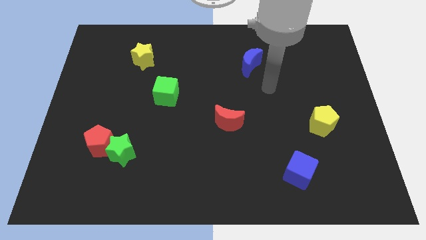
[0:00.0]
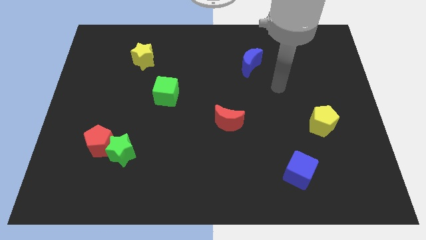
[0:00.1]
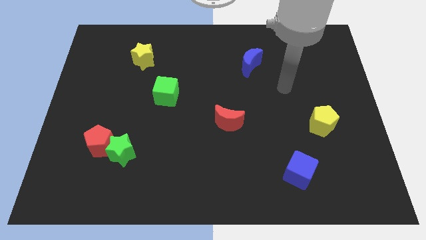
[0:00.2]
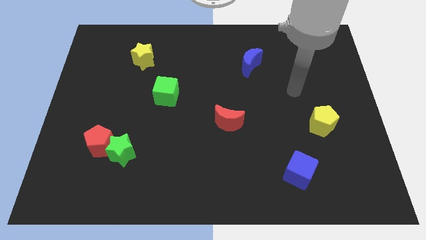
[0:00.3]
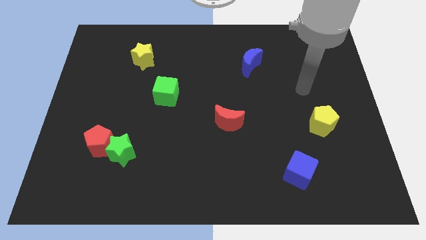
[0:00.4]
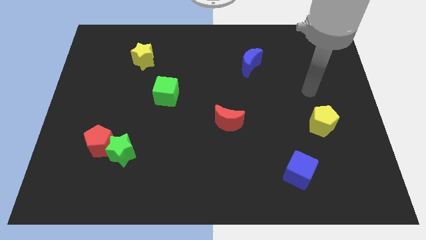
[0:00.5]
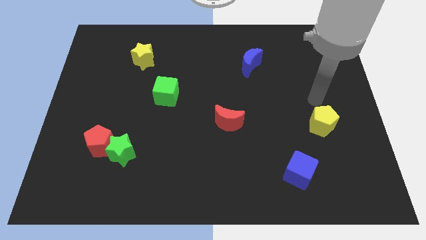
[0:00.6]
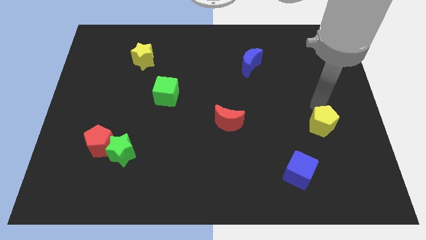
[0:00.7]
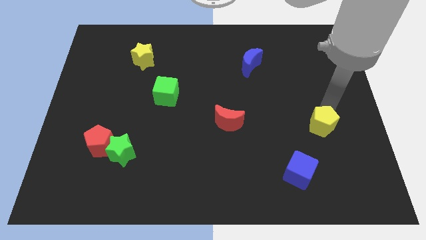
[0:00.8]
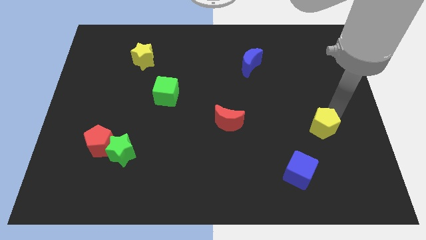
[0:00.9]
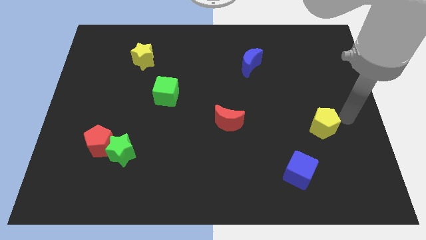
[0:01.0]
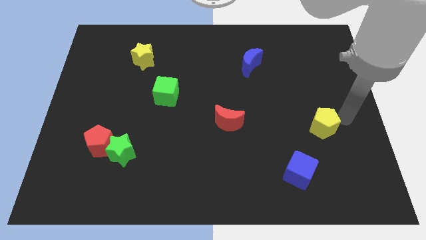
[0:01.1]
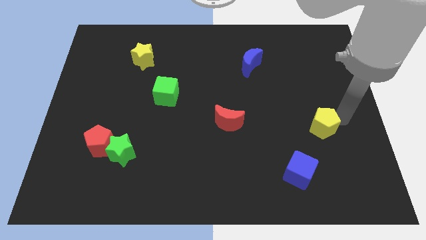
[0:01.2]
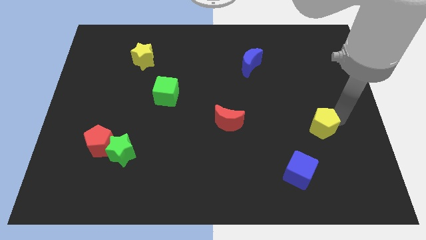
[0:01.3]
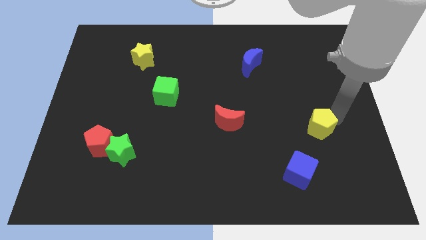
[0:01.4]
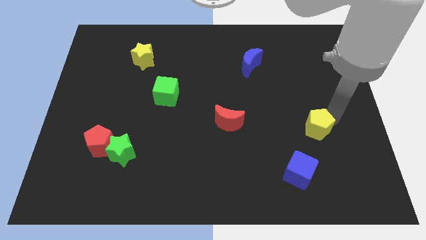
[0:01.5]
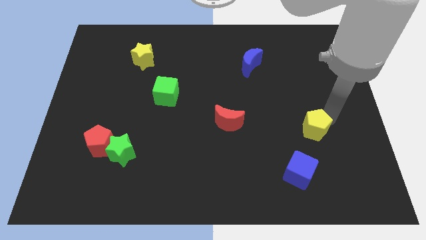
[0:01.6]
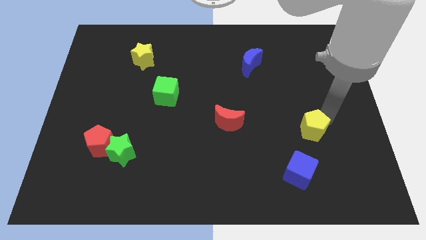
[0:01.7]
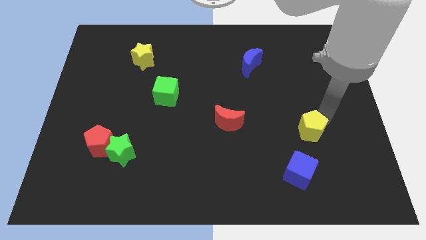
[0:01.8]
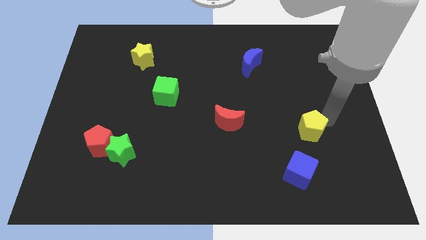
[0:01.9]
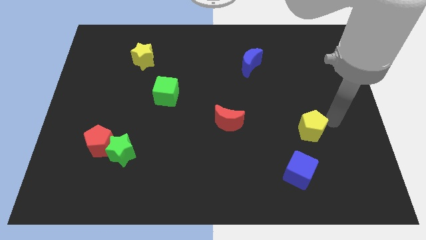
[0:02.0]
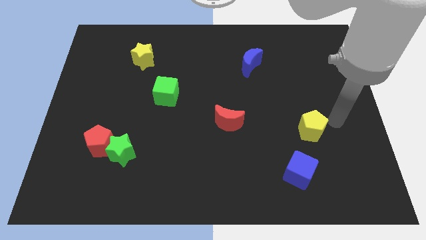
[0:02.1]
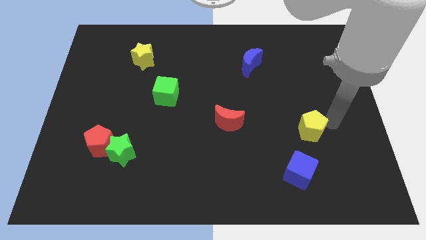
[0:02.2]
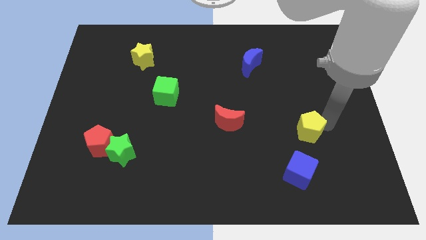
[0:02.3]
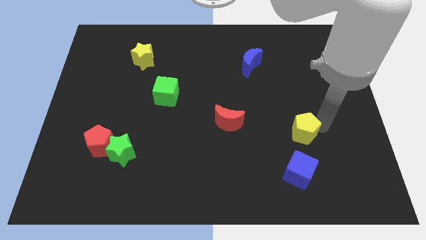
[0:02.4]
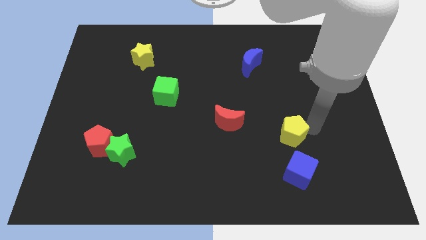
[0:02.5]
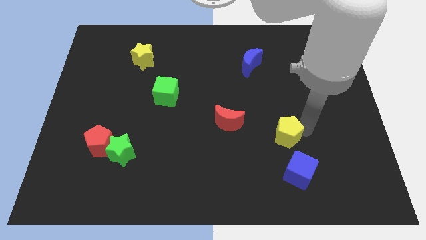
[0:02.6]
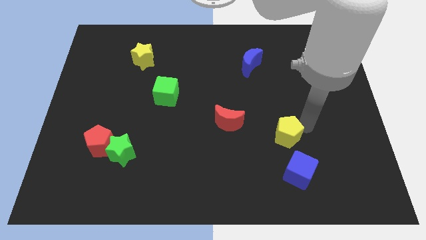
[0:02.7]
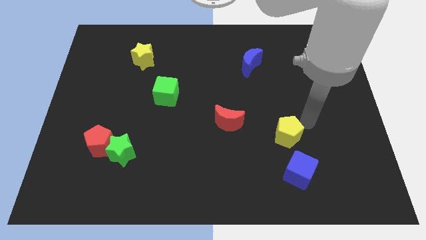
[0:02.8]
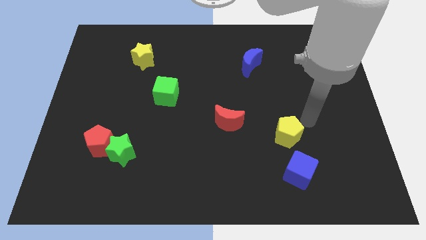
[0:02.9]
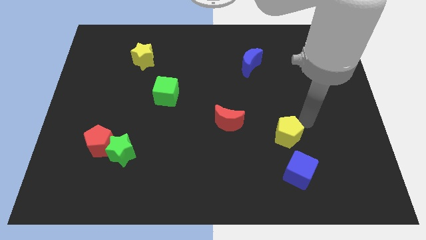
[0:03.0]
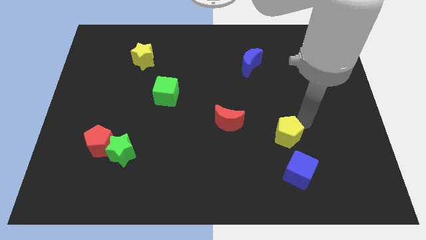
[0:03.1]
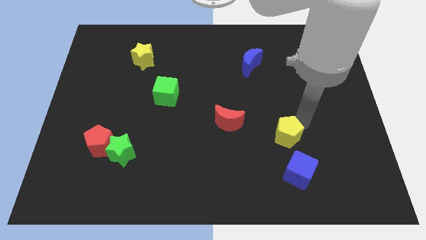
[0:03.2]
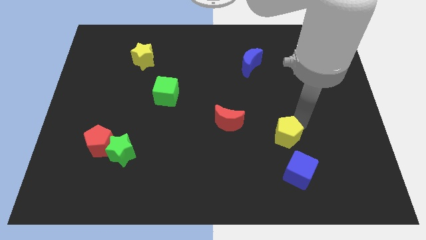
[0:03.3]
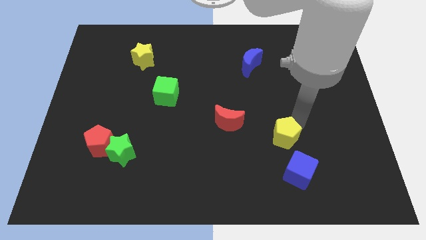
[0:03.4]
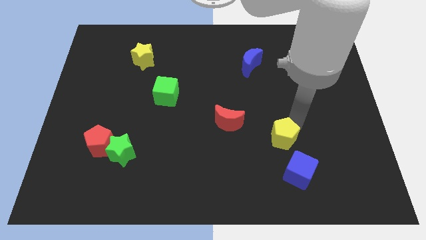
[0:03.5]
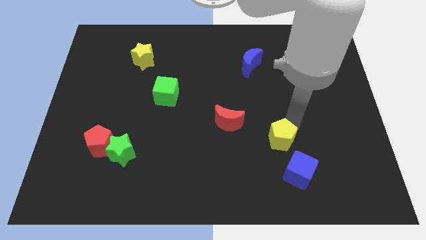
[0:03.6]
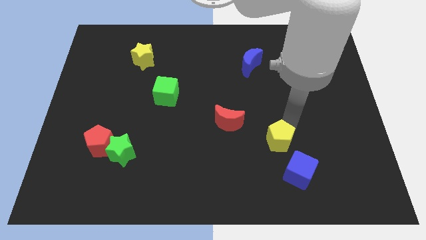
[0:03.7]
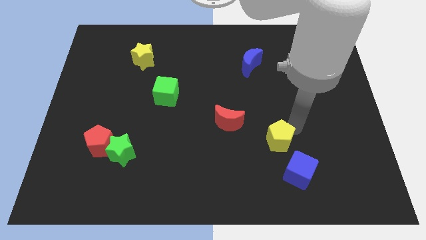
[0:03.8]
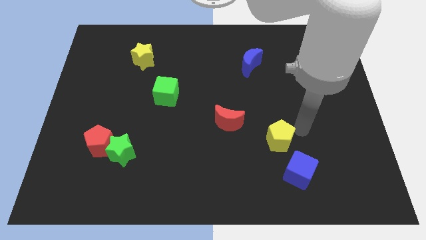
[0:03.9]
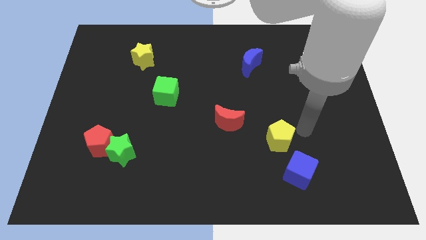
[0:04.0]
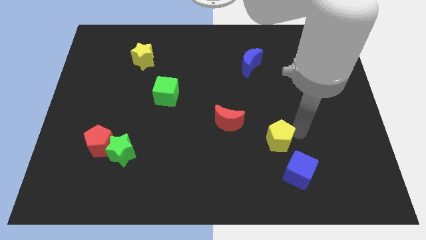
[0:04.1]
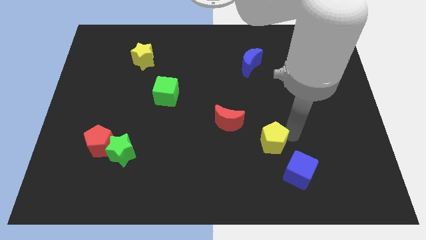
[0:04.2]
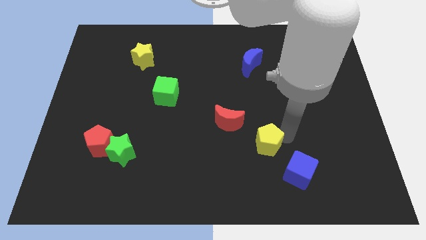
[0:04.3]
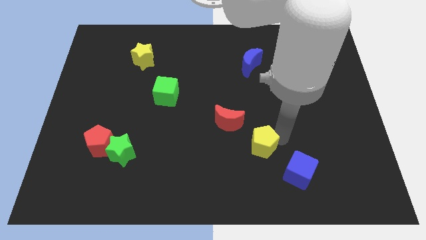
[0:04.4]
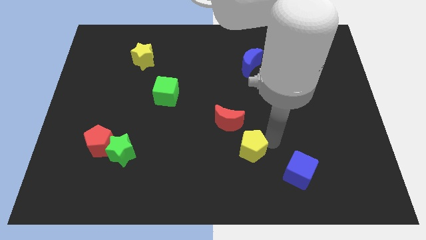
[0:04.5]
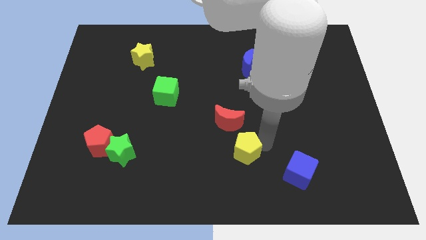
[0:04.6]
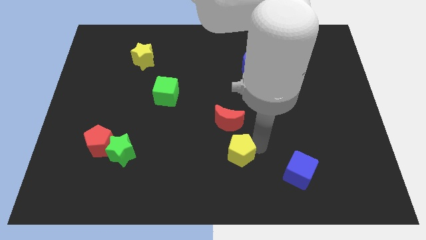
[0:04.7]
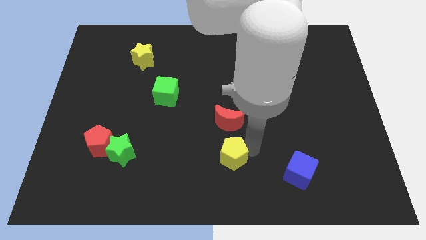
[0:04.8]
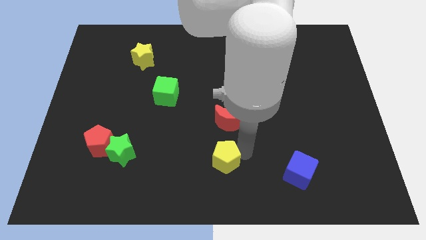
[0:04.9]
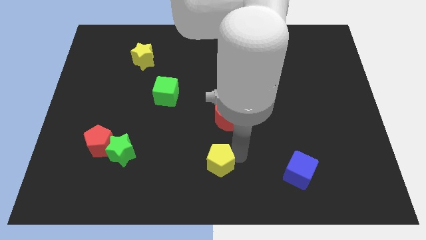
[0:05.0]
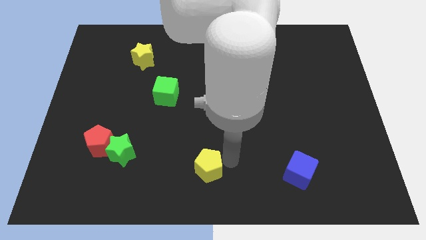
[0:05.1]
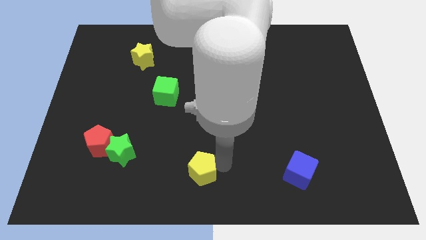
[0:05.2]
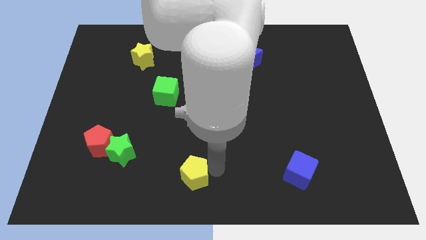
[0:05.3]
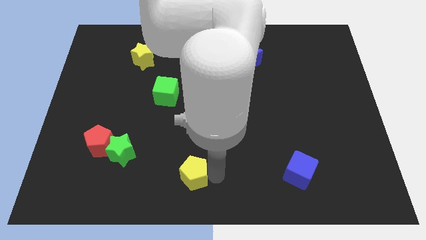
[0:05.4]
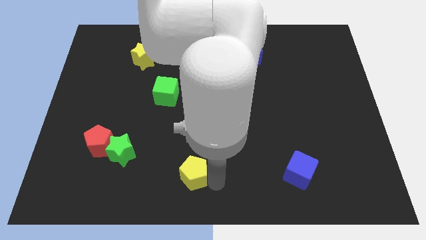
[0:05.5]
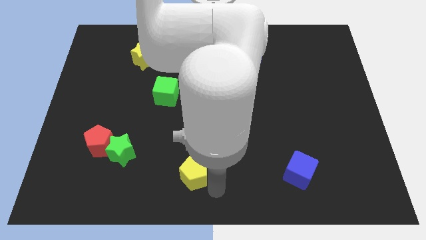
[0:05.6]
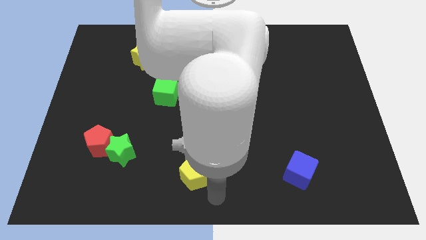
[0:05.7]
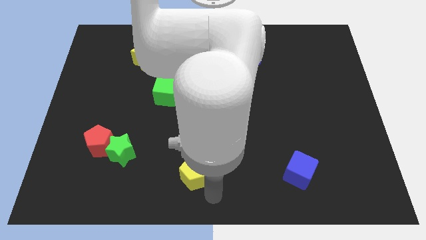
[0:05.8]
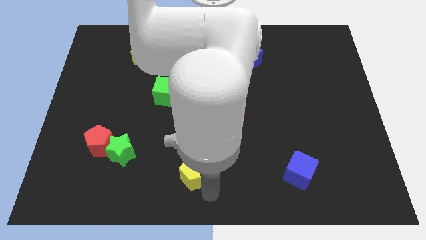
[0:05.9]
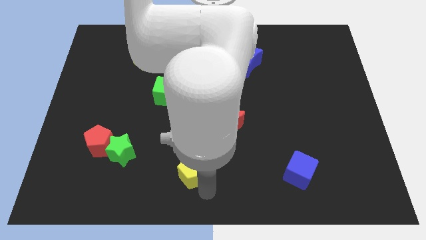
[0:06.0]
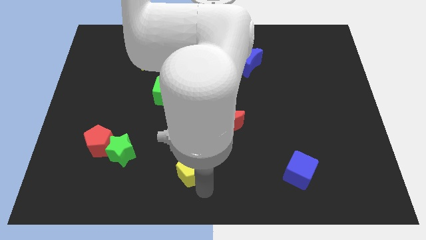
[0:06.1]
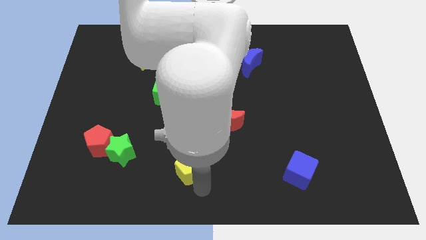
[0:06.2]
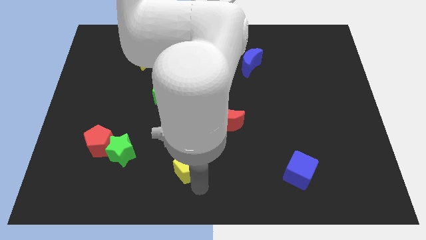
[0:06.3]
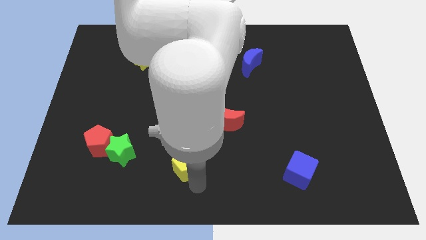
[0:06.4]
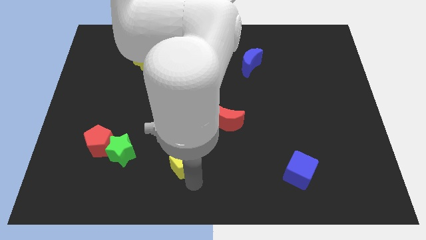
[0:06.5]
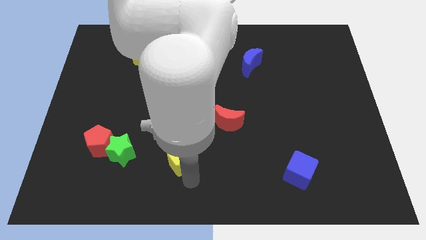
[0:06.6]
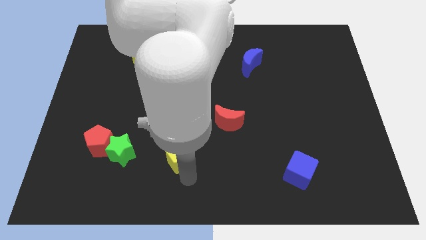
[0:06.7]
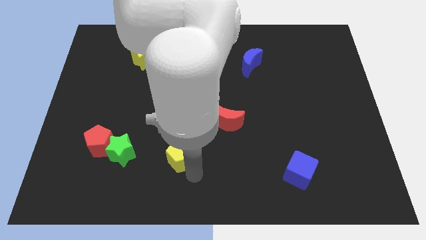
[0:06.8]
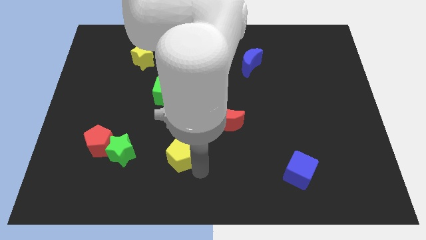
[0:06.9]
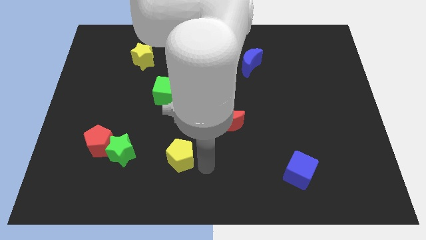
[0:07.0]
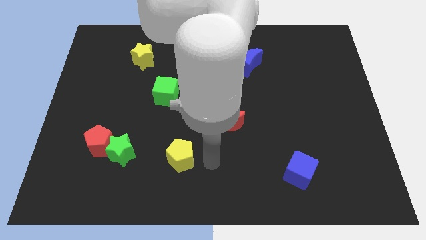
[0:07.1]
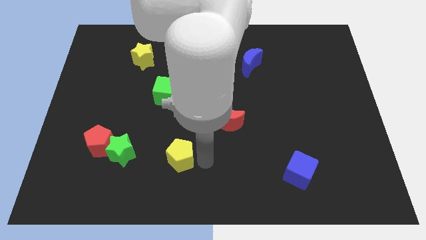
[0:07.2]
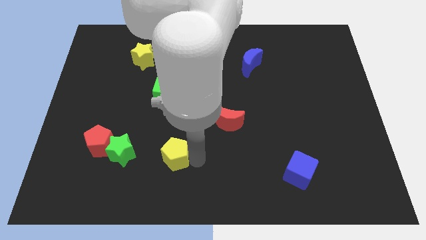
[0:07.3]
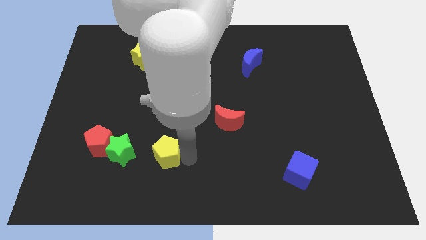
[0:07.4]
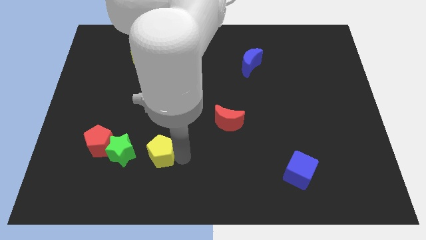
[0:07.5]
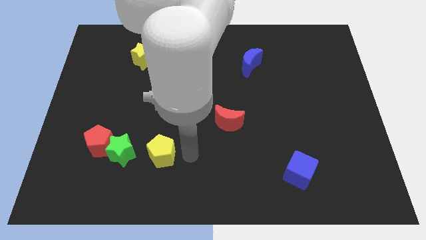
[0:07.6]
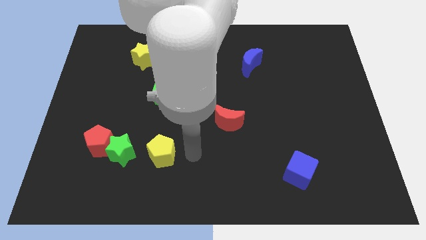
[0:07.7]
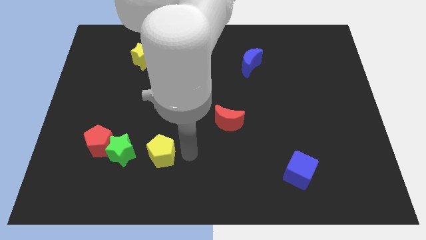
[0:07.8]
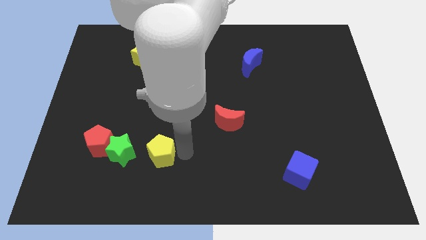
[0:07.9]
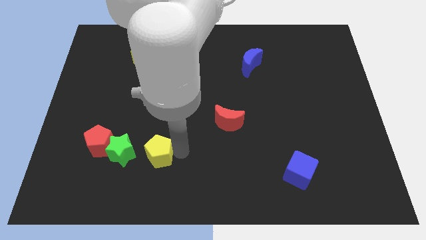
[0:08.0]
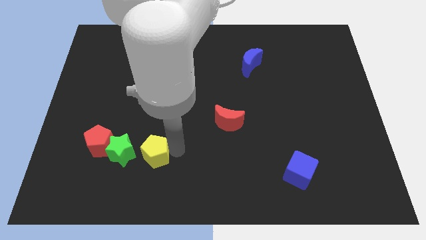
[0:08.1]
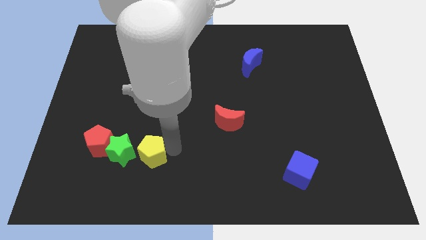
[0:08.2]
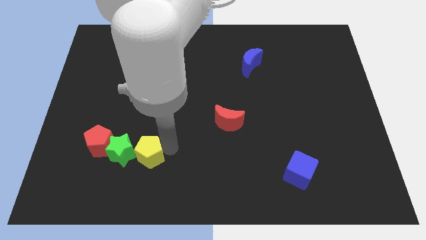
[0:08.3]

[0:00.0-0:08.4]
put the yellow pentagon close to the green star
